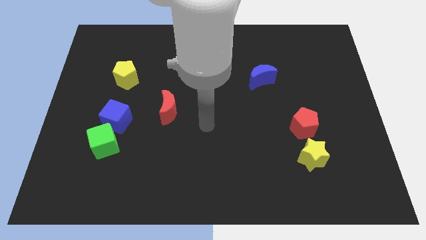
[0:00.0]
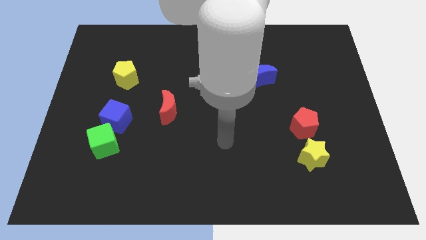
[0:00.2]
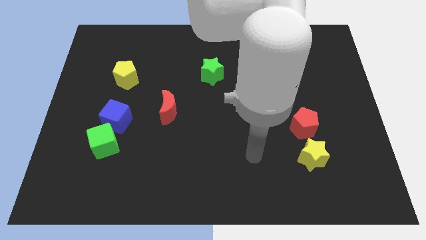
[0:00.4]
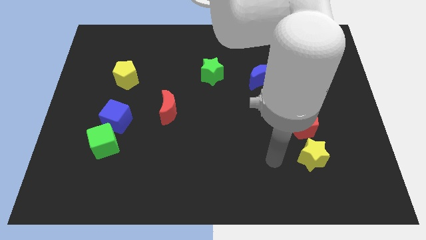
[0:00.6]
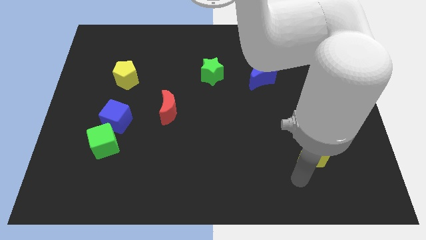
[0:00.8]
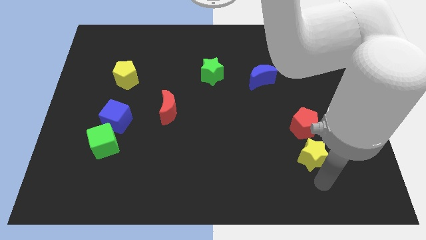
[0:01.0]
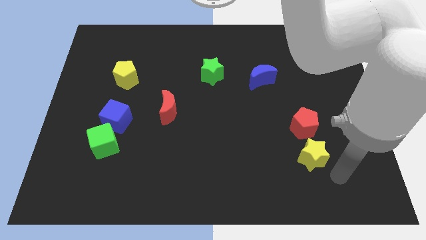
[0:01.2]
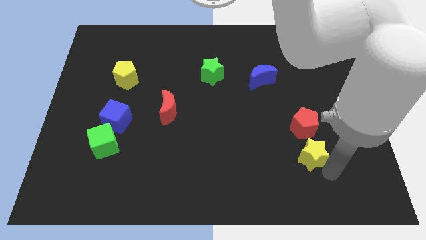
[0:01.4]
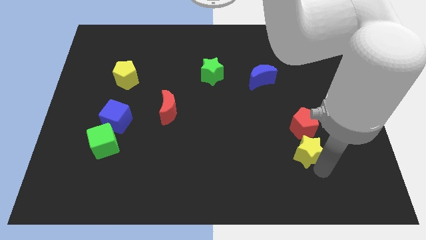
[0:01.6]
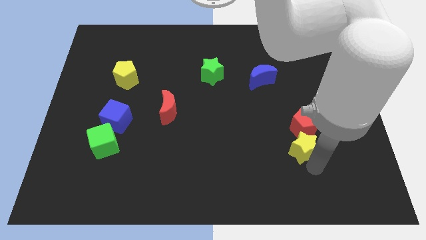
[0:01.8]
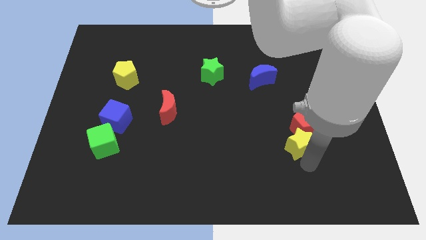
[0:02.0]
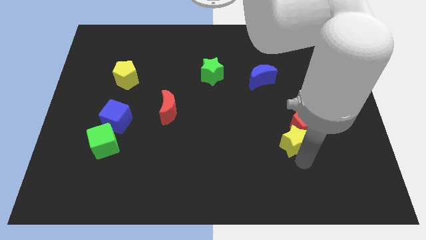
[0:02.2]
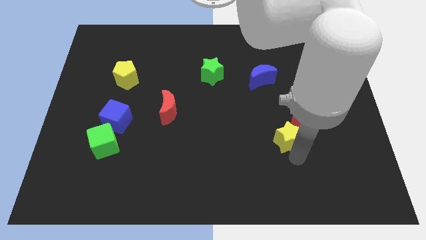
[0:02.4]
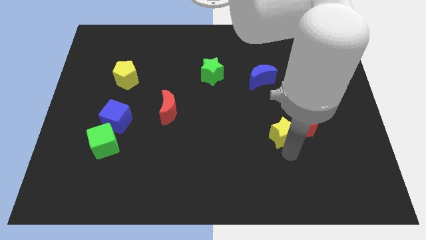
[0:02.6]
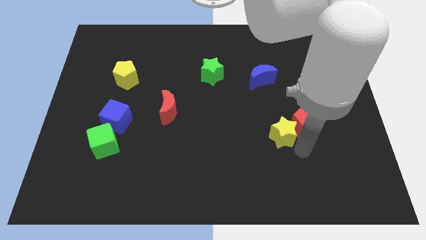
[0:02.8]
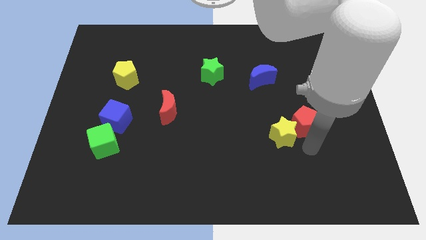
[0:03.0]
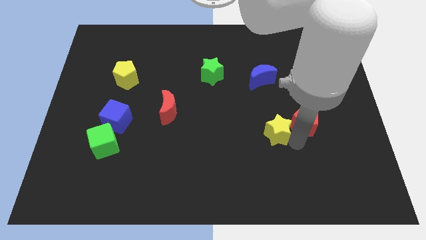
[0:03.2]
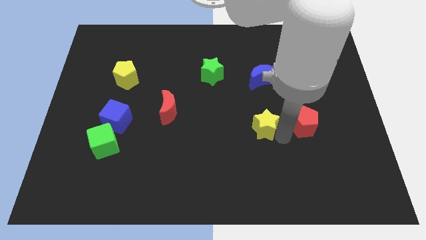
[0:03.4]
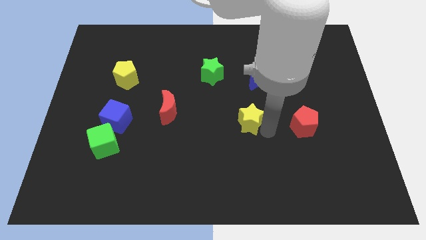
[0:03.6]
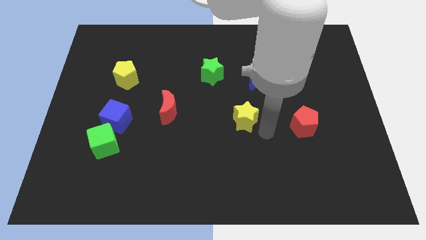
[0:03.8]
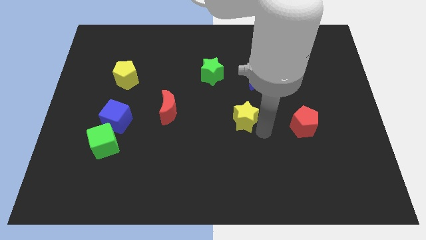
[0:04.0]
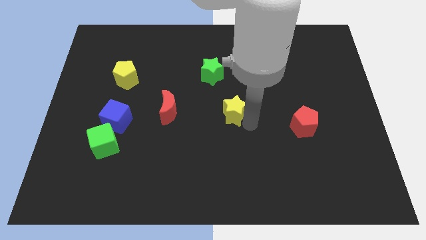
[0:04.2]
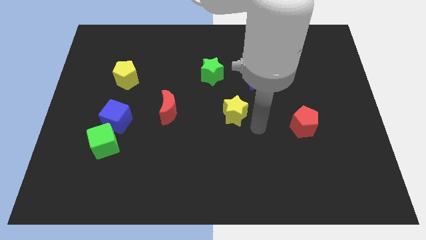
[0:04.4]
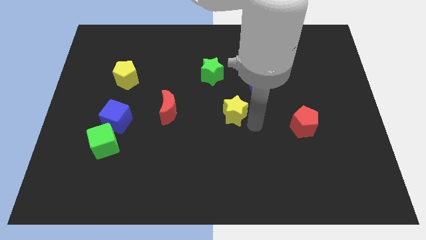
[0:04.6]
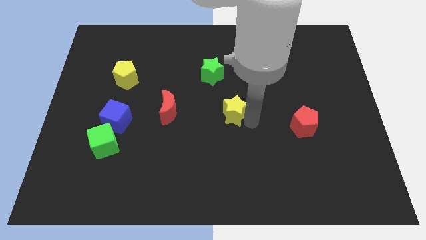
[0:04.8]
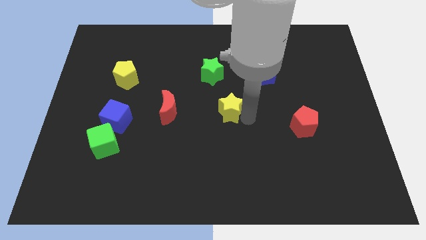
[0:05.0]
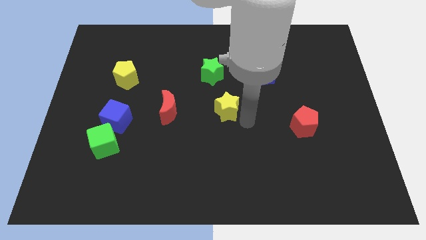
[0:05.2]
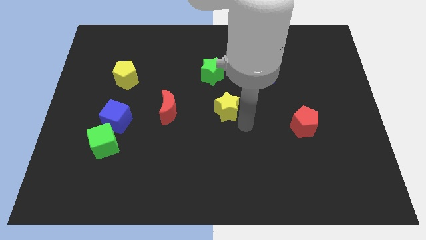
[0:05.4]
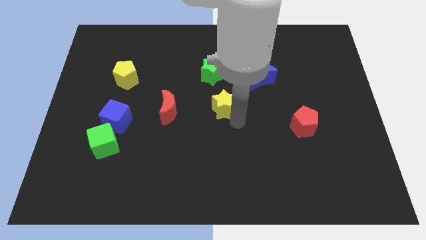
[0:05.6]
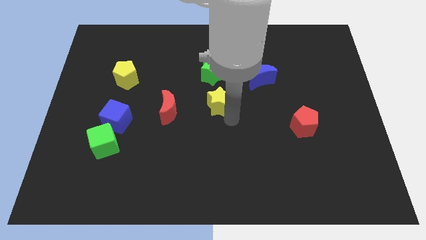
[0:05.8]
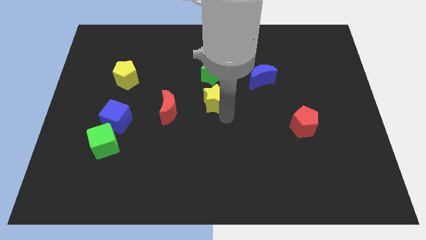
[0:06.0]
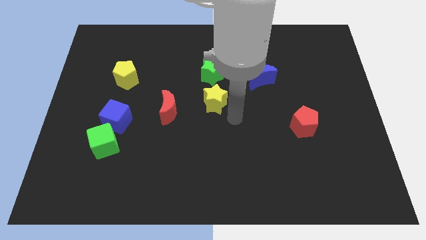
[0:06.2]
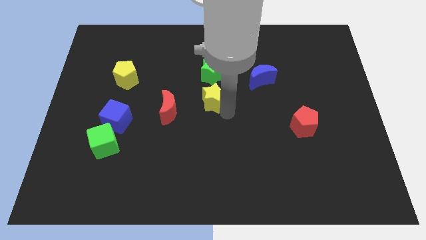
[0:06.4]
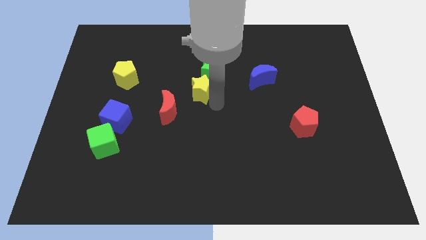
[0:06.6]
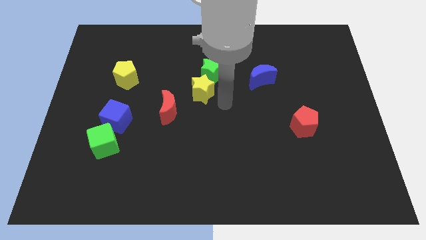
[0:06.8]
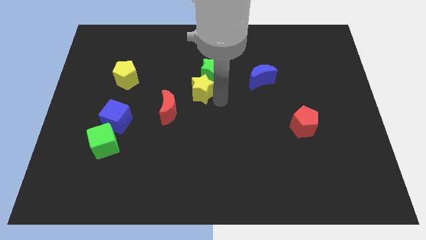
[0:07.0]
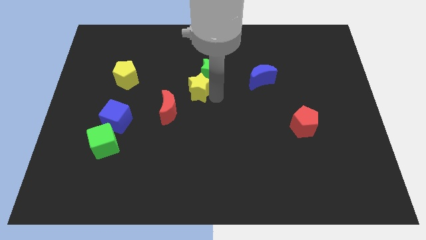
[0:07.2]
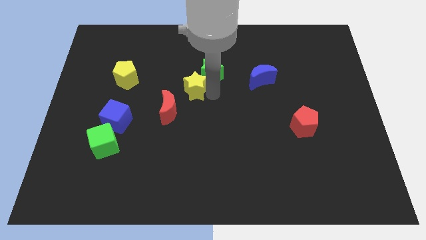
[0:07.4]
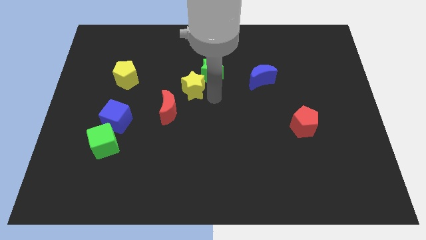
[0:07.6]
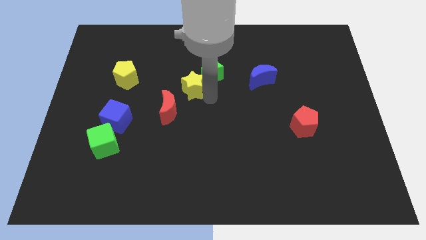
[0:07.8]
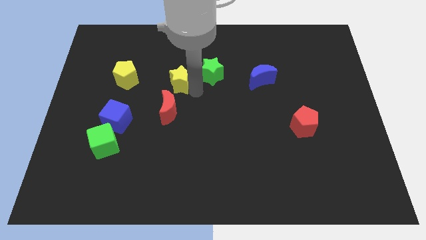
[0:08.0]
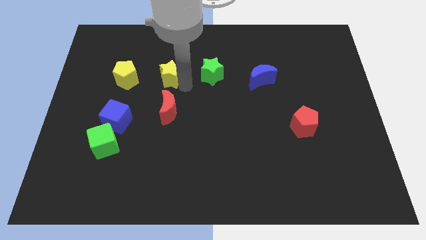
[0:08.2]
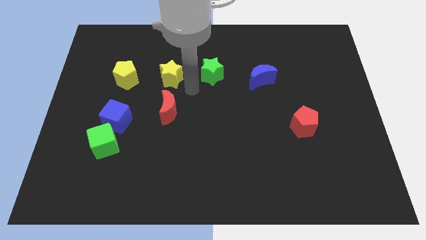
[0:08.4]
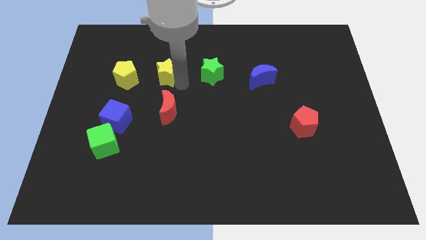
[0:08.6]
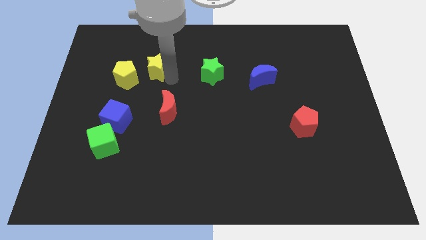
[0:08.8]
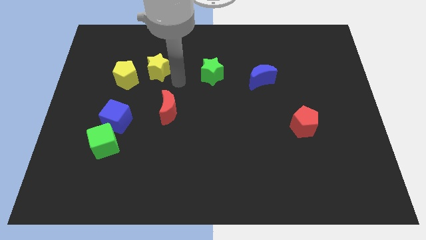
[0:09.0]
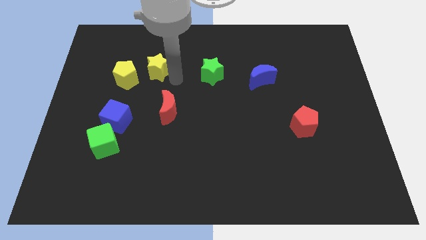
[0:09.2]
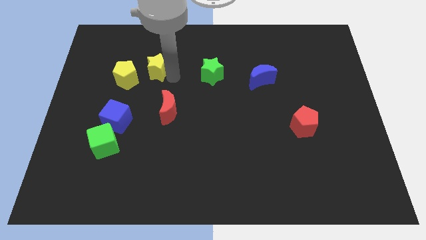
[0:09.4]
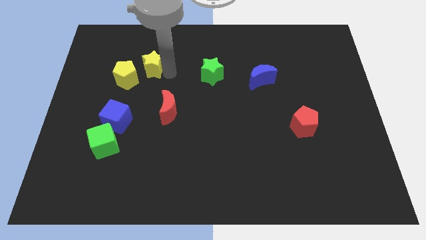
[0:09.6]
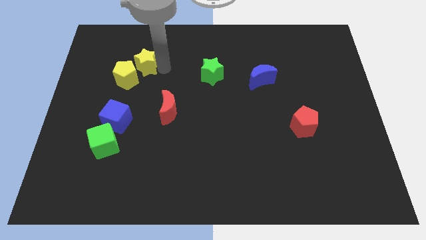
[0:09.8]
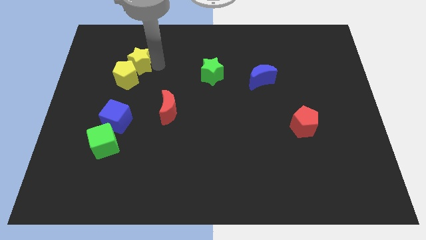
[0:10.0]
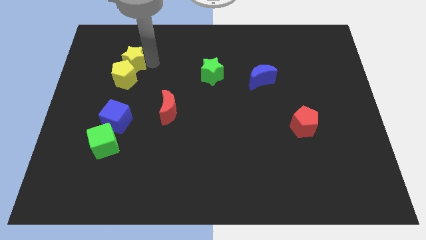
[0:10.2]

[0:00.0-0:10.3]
put the yellow star to the top left of the yellow pentagon

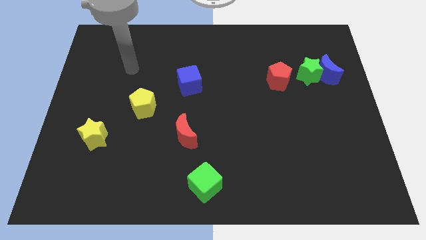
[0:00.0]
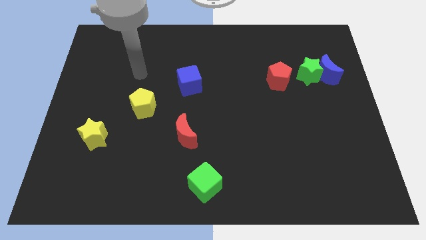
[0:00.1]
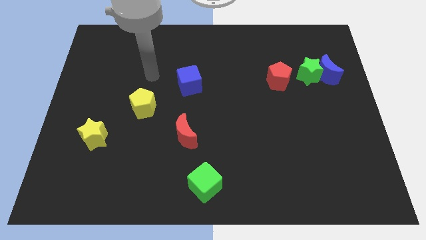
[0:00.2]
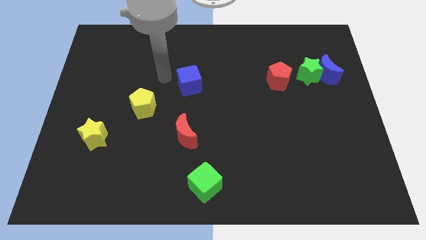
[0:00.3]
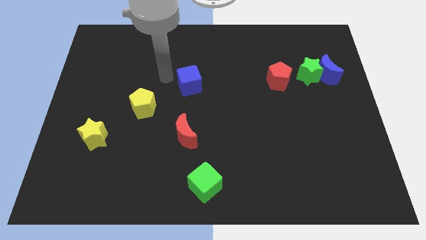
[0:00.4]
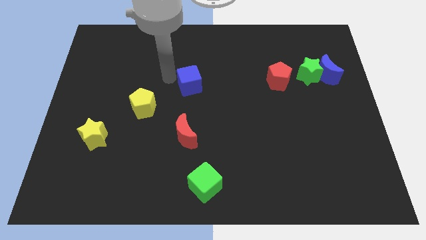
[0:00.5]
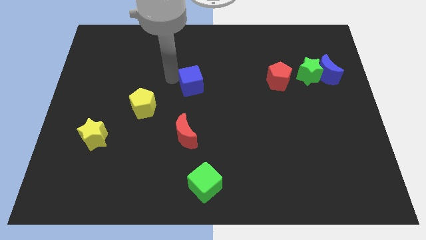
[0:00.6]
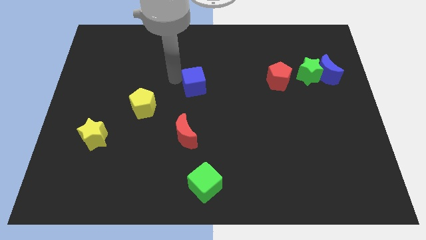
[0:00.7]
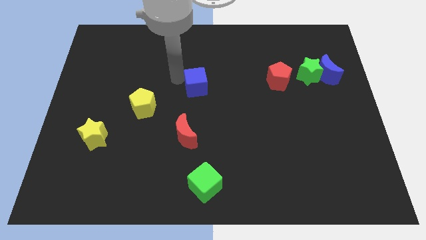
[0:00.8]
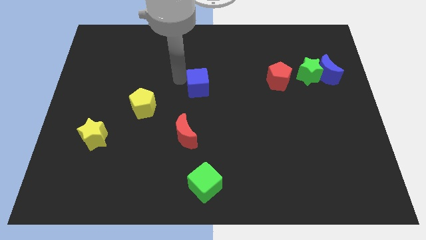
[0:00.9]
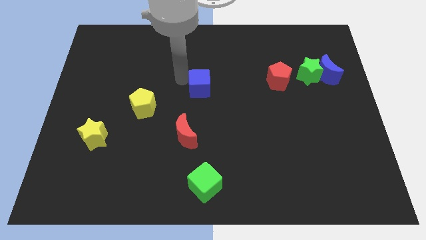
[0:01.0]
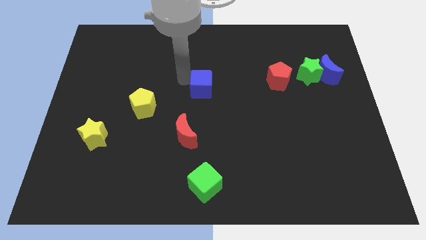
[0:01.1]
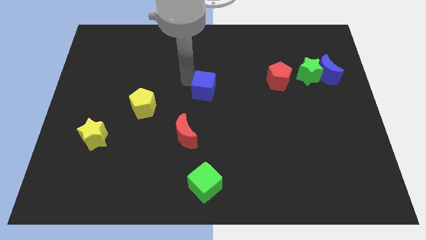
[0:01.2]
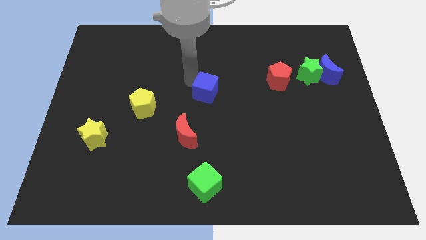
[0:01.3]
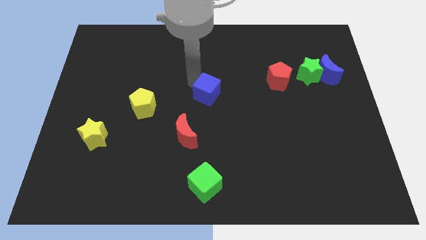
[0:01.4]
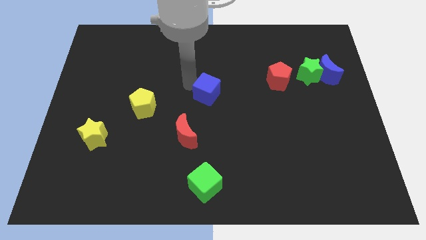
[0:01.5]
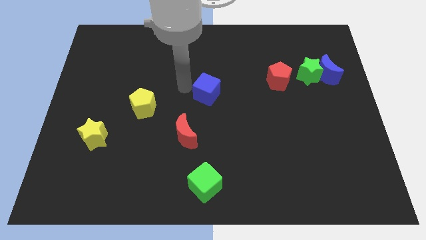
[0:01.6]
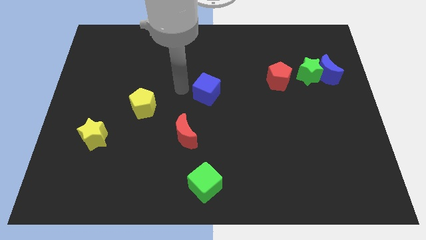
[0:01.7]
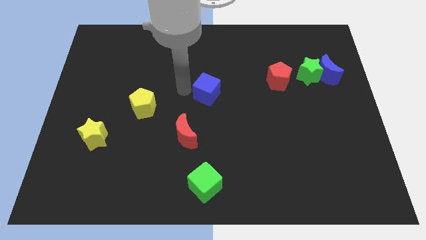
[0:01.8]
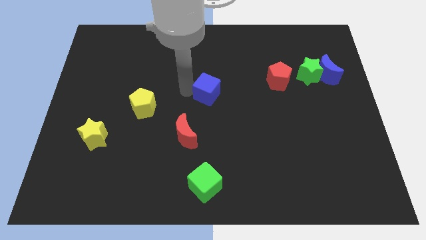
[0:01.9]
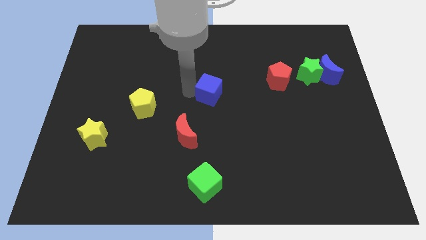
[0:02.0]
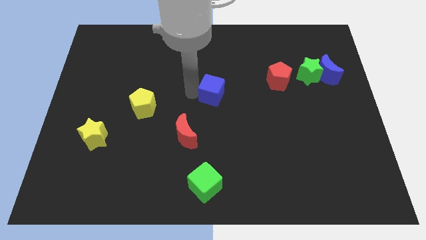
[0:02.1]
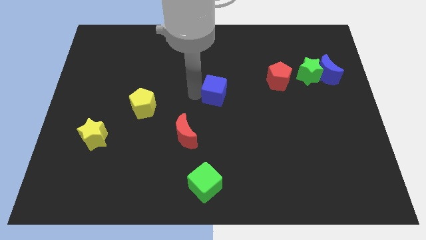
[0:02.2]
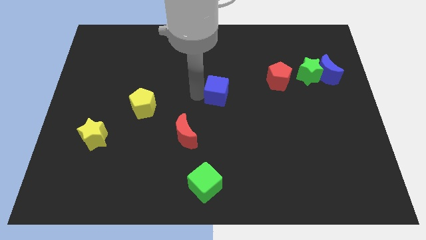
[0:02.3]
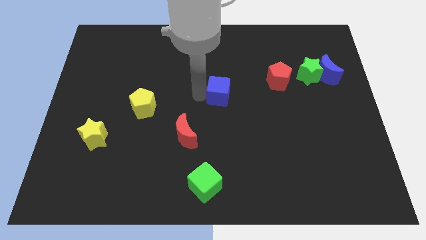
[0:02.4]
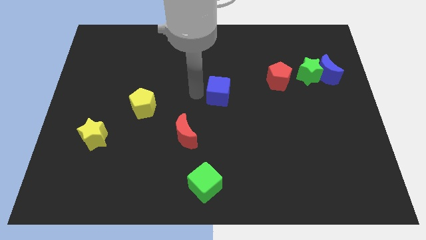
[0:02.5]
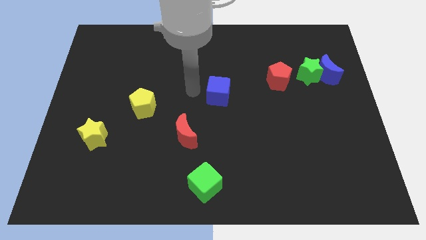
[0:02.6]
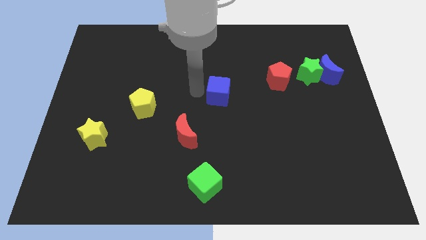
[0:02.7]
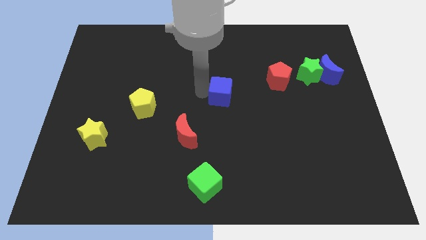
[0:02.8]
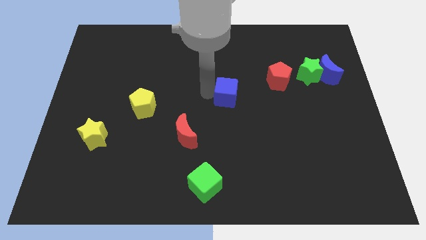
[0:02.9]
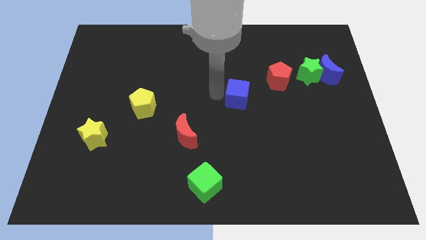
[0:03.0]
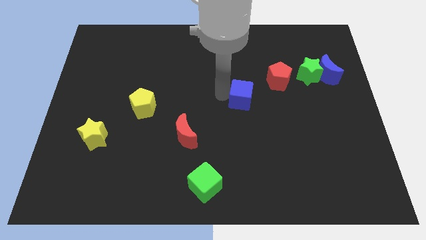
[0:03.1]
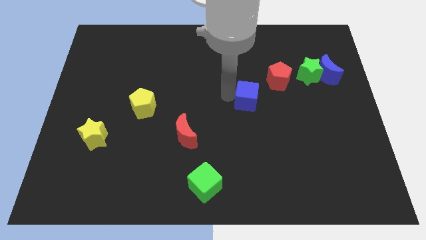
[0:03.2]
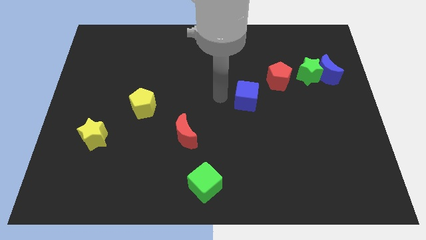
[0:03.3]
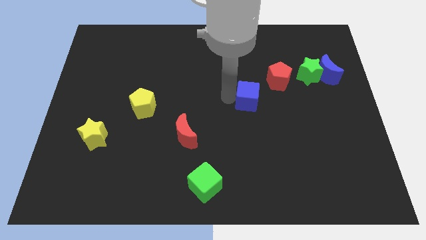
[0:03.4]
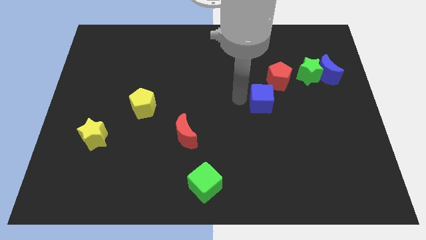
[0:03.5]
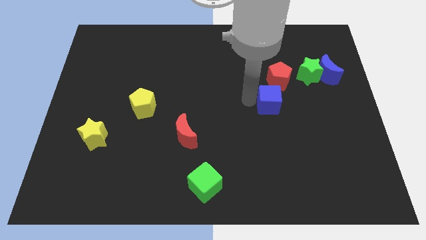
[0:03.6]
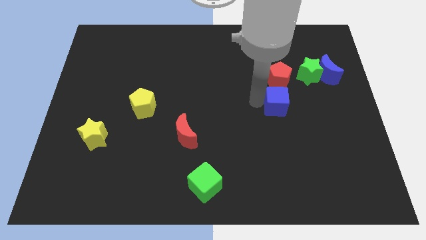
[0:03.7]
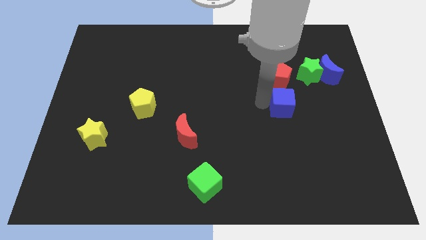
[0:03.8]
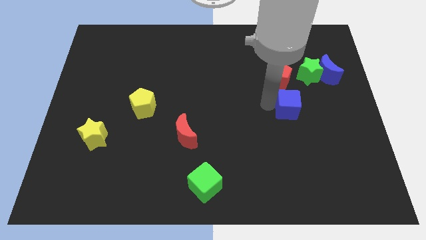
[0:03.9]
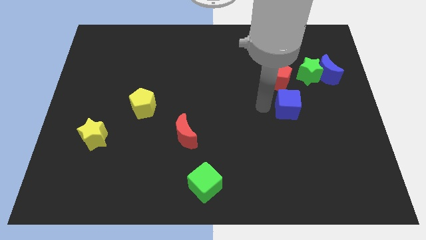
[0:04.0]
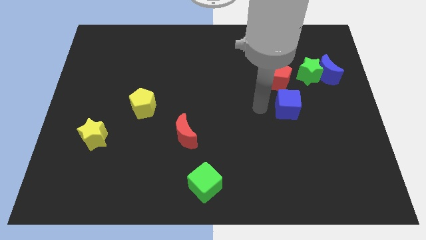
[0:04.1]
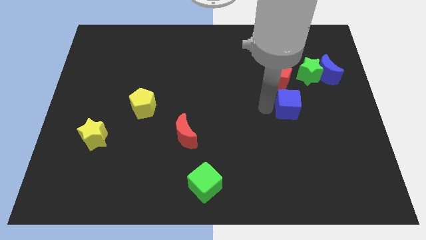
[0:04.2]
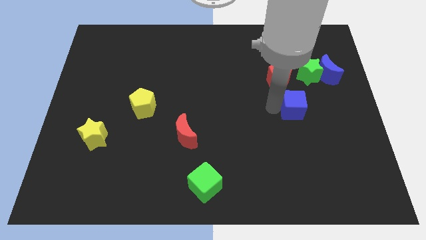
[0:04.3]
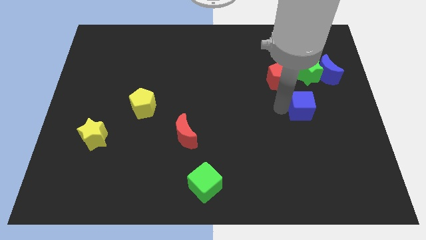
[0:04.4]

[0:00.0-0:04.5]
push the blue cube to the bottom side of the green star
